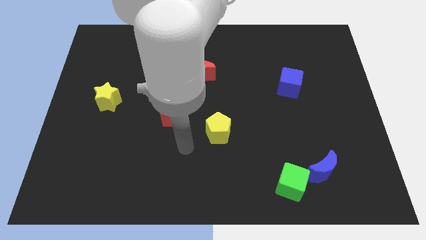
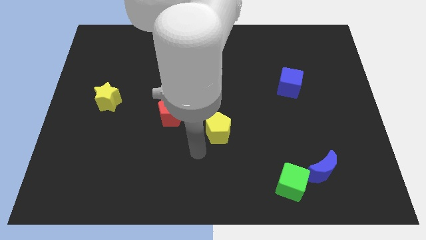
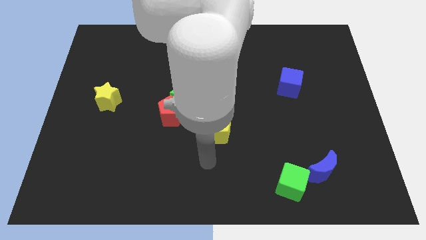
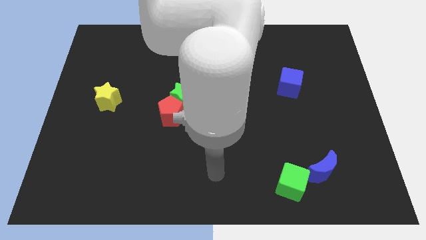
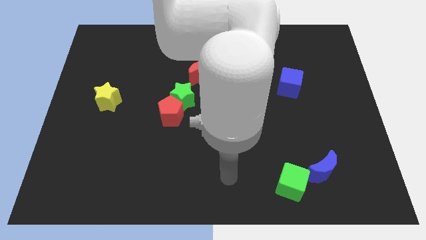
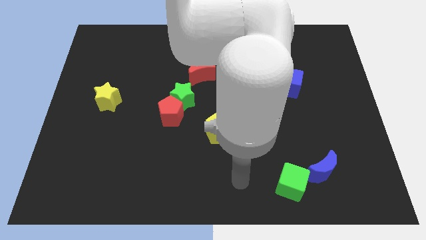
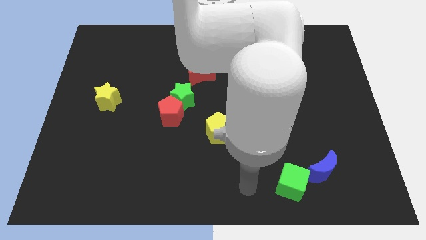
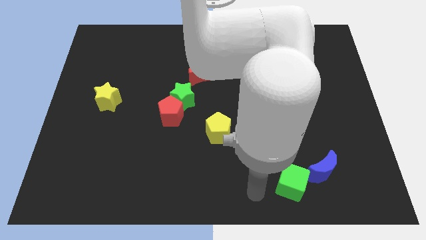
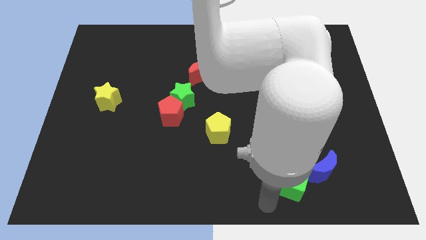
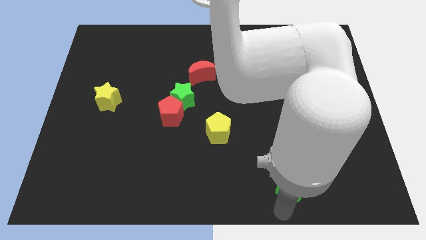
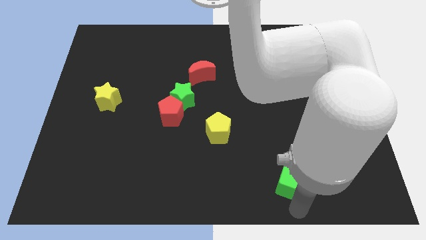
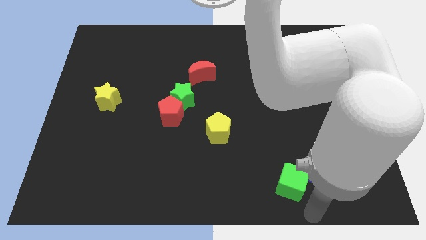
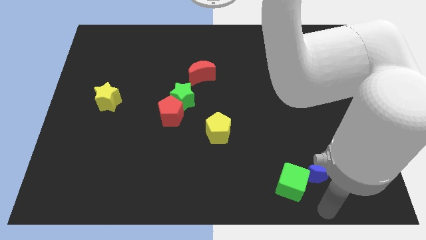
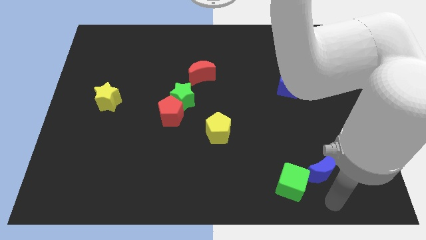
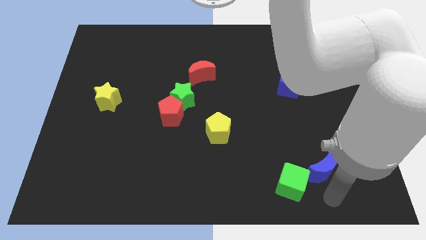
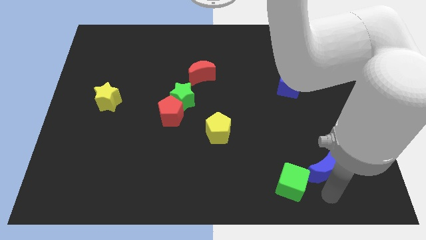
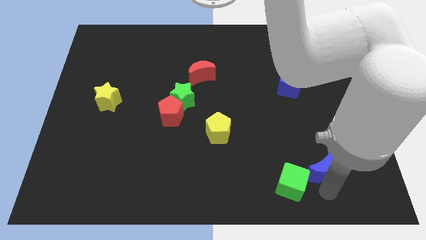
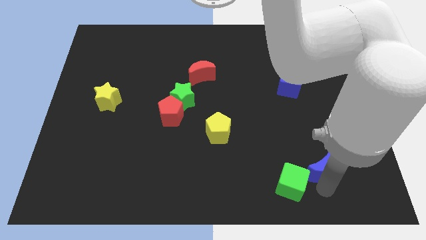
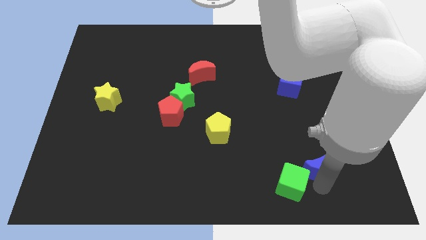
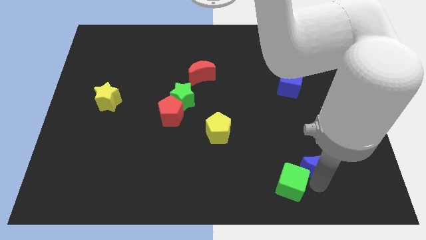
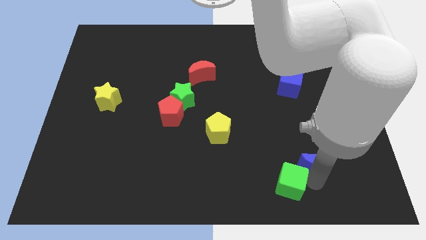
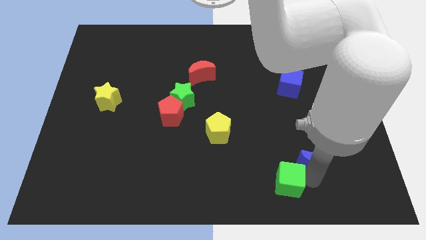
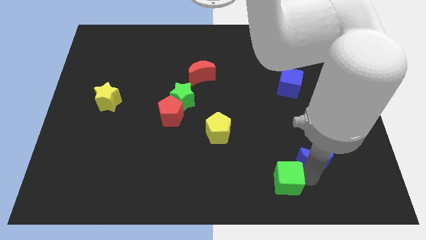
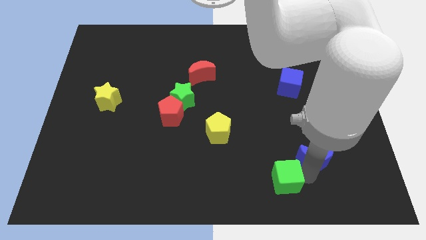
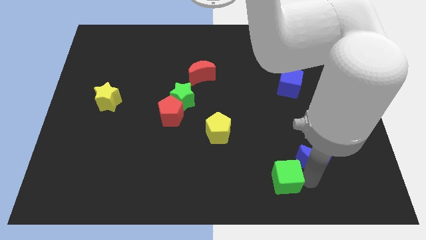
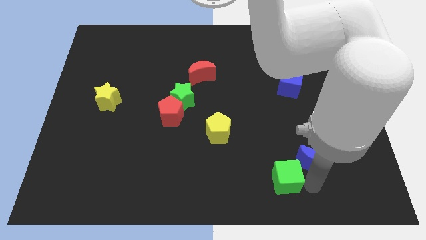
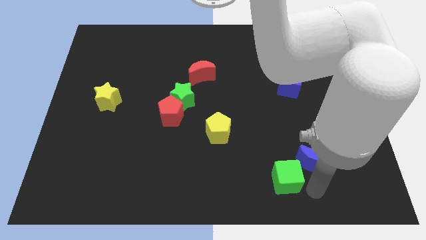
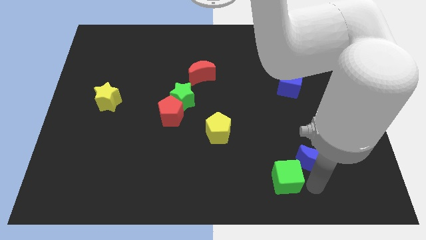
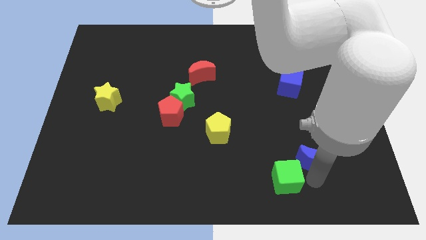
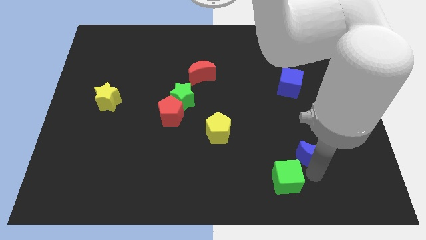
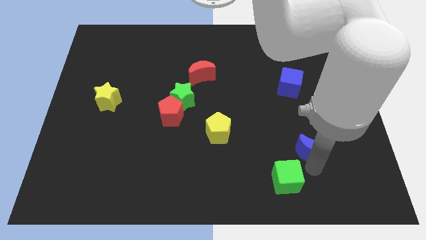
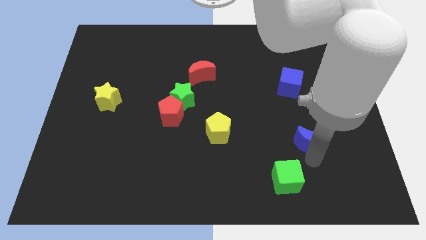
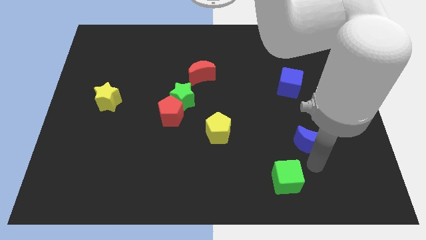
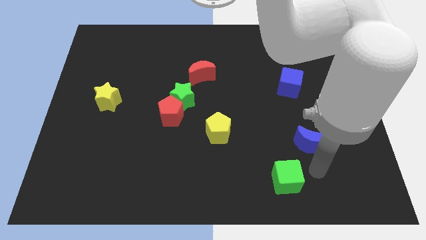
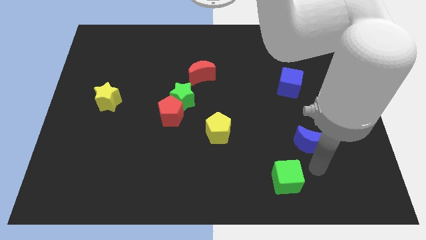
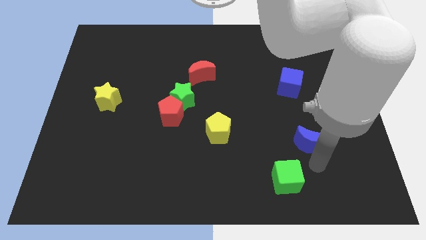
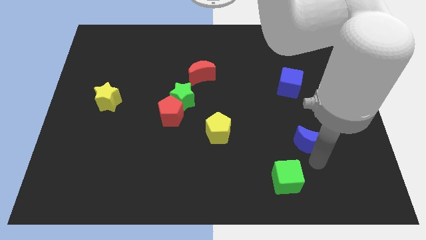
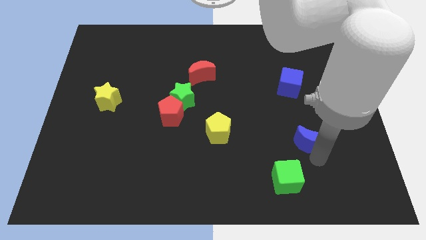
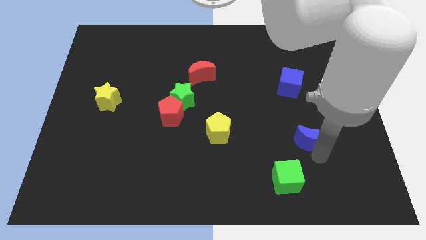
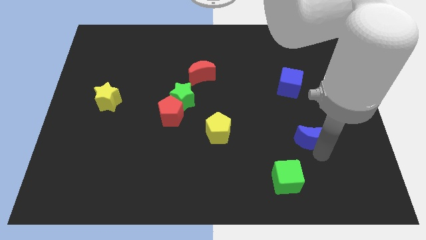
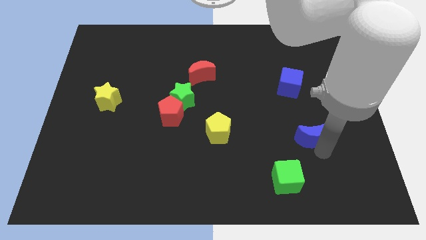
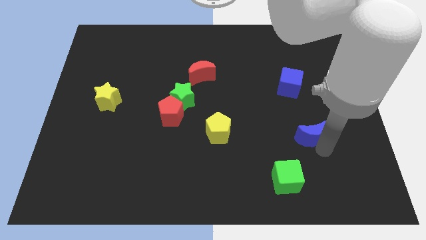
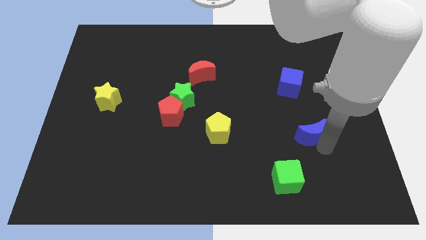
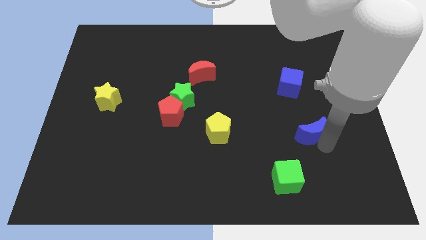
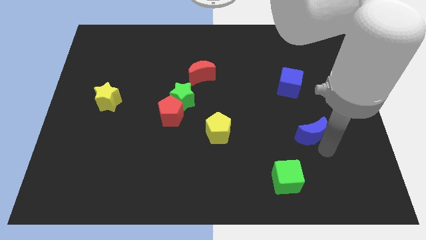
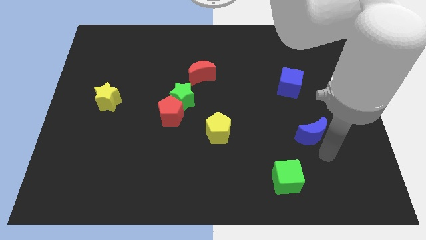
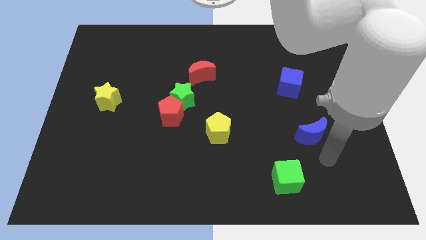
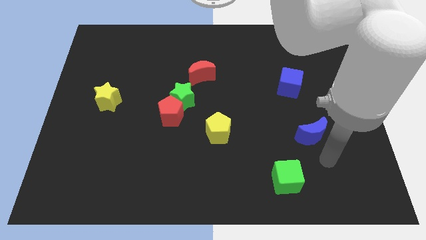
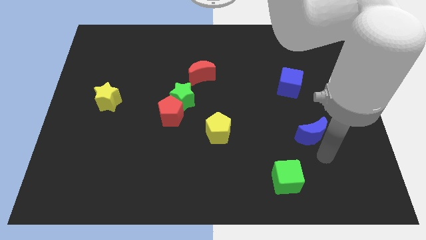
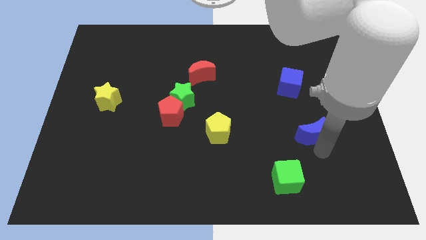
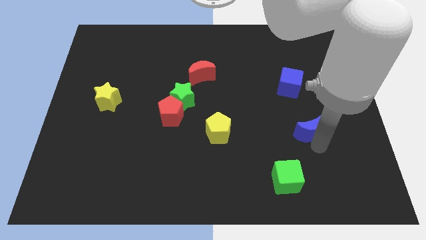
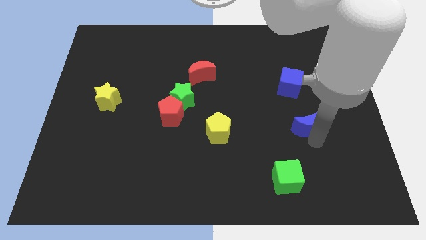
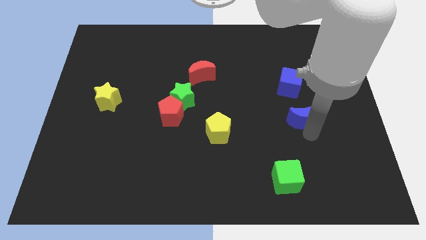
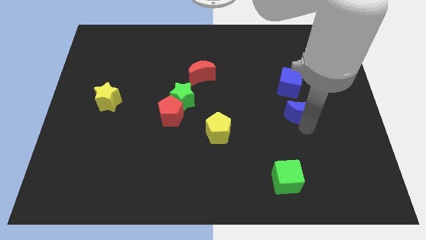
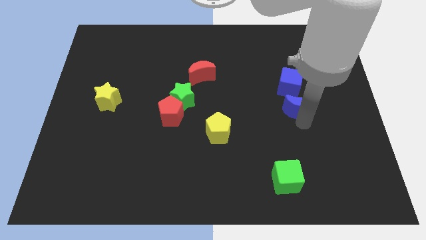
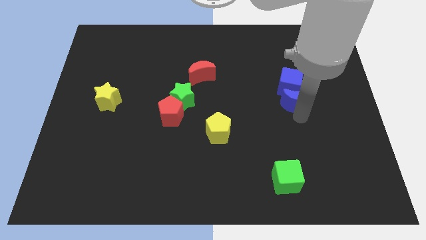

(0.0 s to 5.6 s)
push the blue moon next to the blue cube

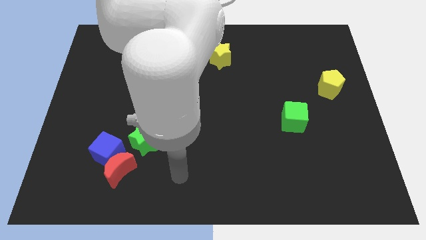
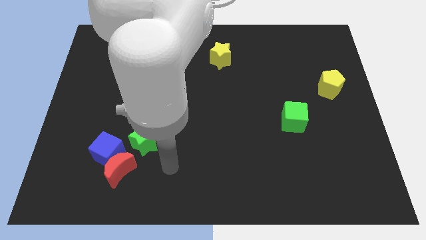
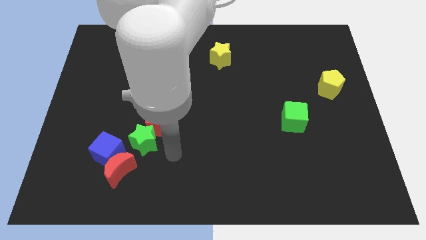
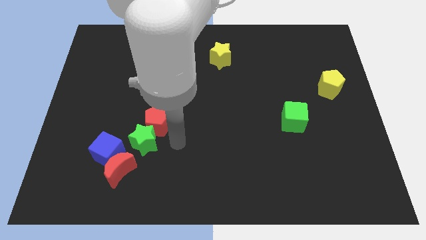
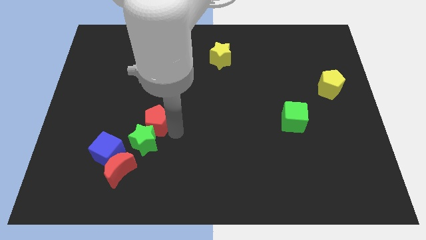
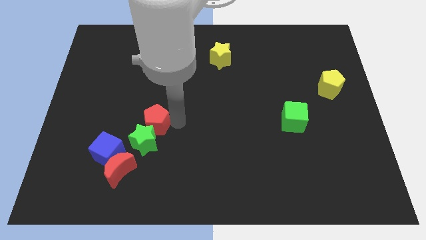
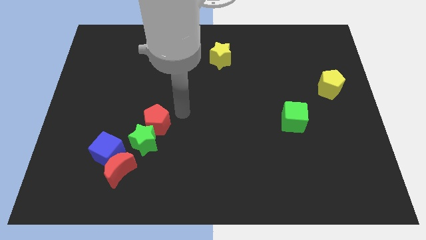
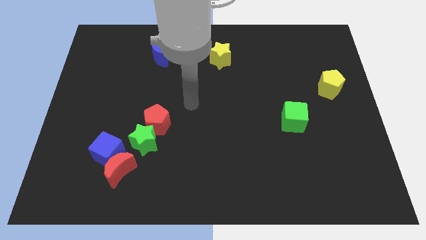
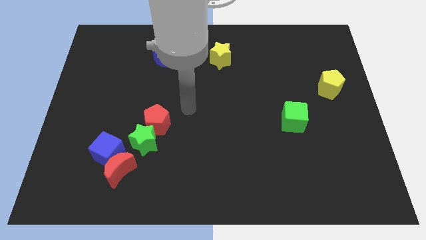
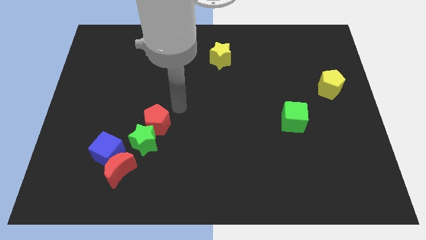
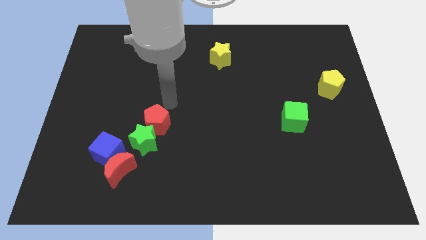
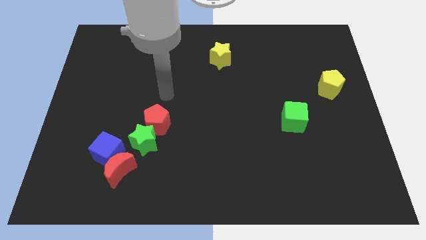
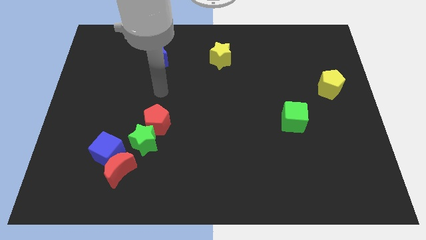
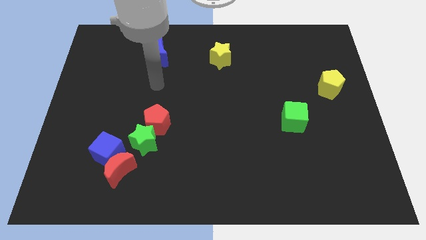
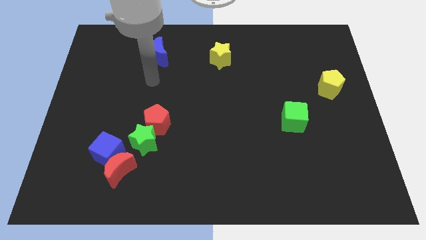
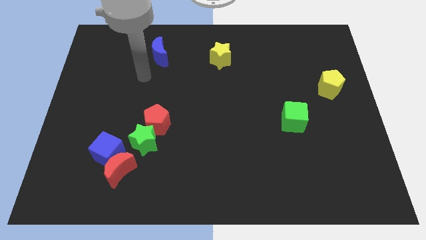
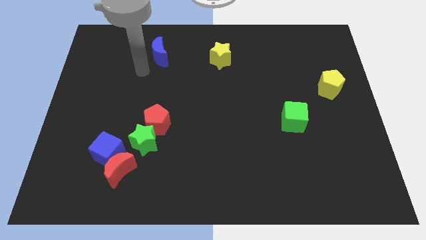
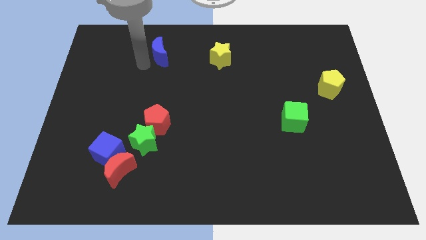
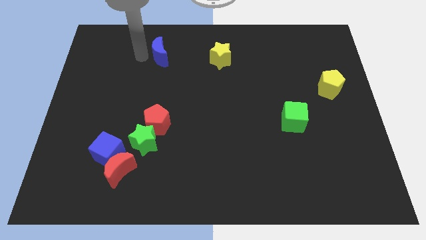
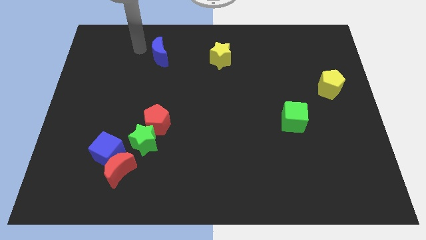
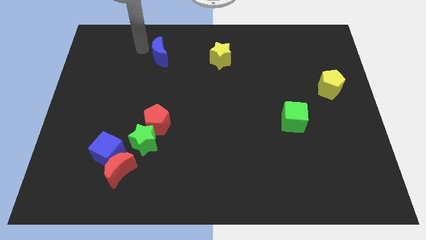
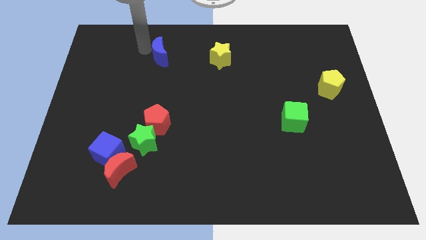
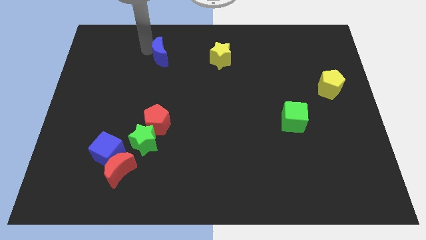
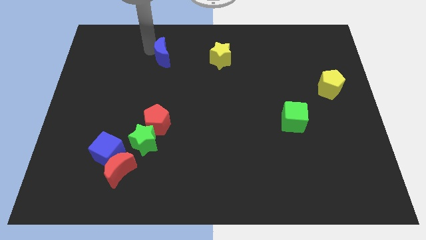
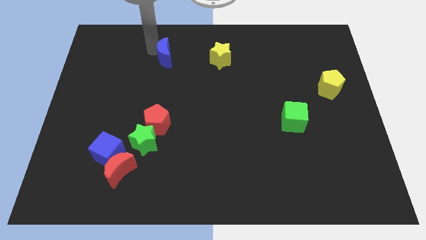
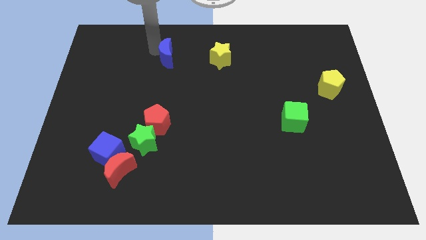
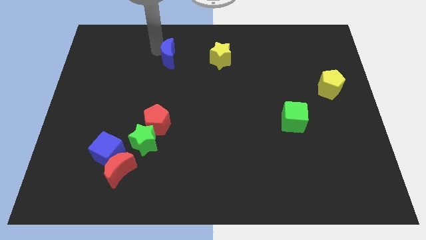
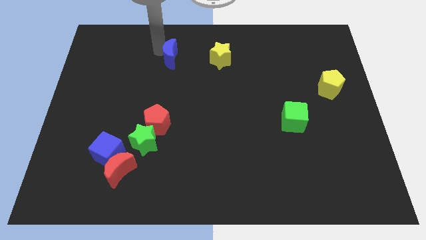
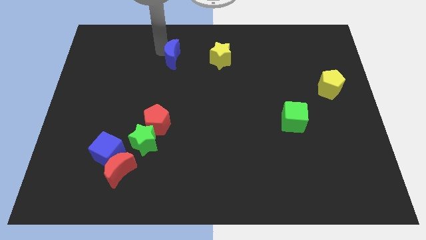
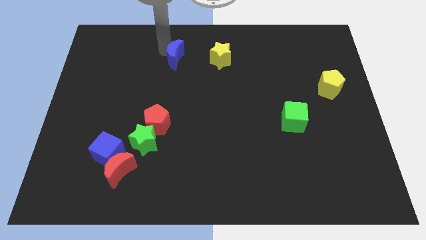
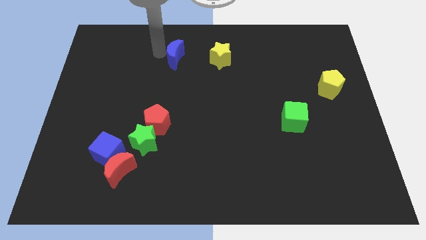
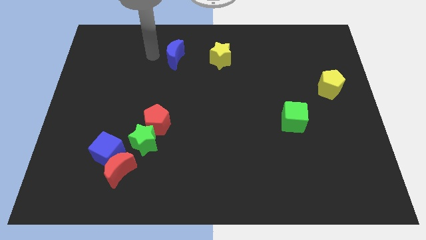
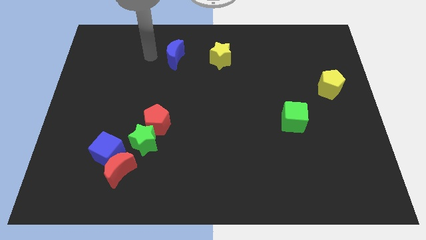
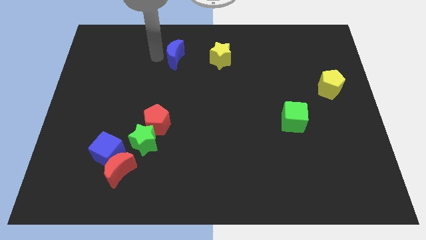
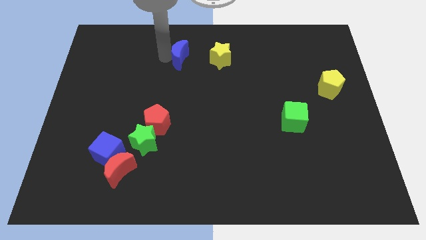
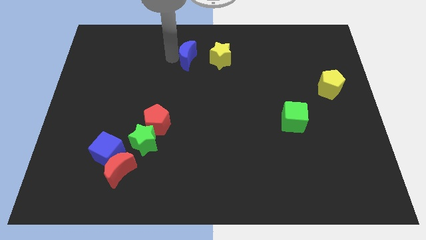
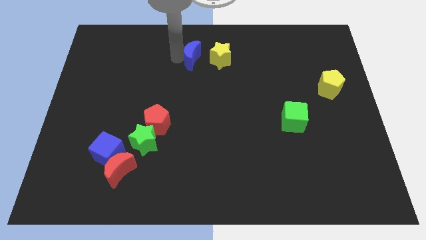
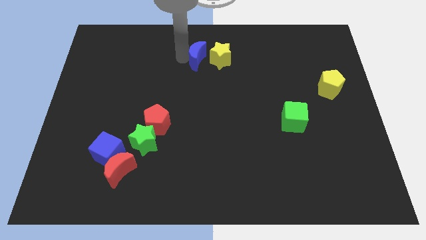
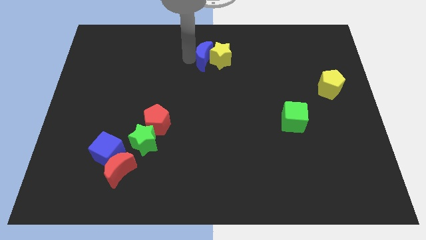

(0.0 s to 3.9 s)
put the blue moon next to the yellow star
